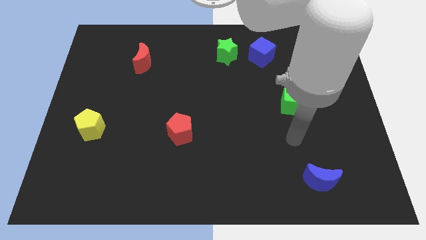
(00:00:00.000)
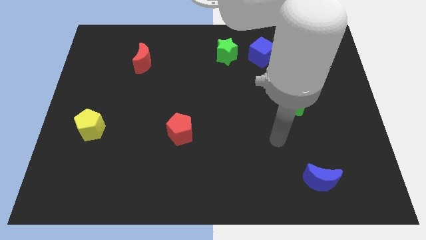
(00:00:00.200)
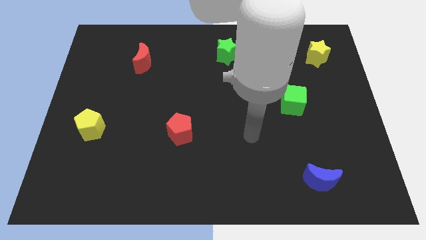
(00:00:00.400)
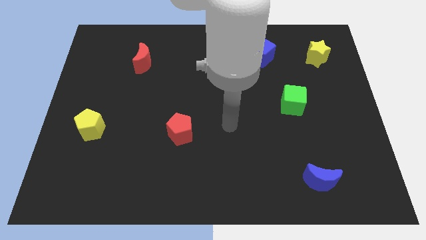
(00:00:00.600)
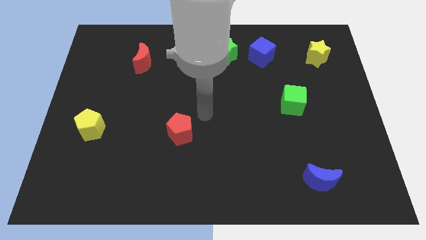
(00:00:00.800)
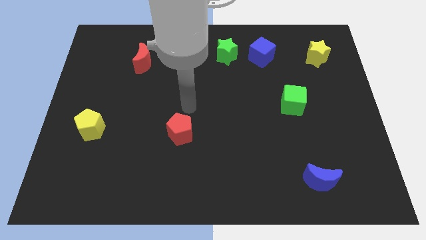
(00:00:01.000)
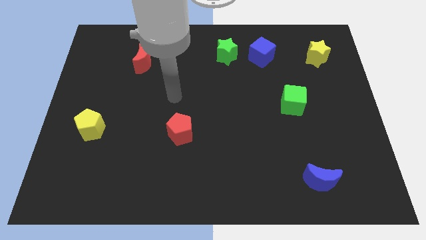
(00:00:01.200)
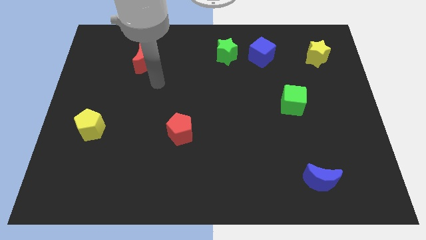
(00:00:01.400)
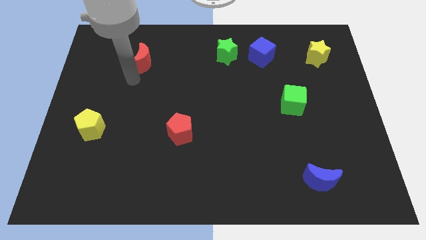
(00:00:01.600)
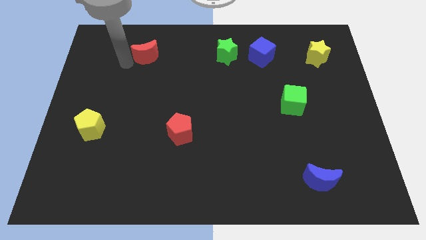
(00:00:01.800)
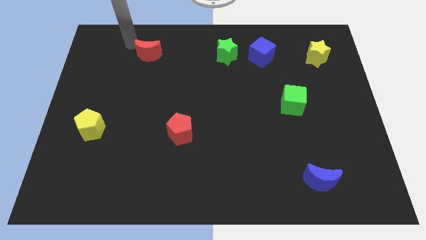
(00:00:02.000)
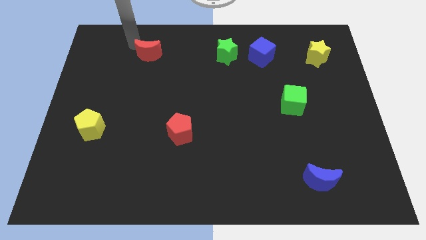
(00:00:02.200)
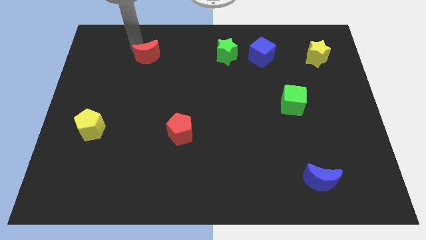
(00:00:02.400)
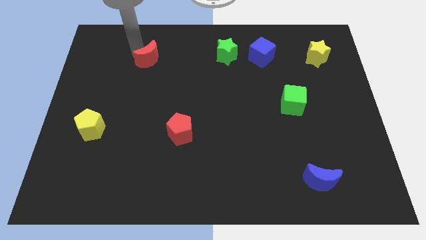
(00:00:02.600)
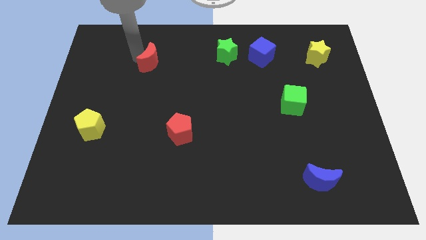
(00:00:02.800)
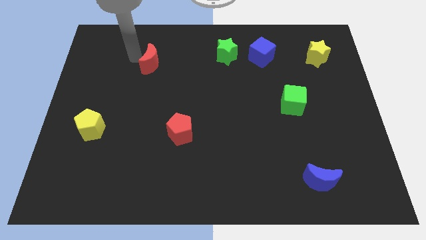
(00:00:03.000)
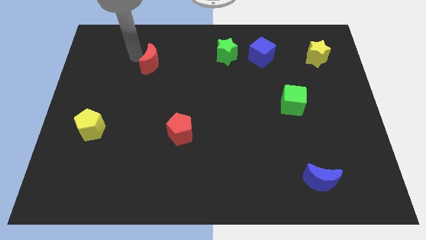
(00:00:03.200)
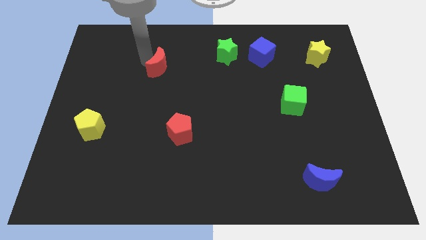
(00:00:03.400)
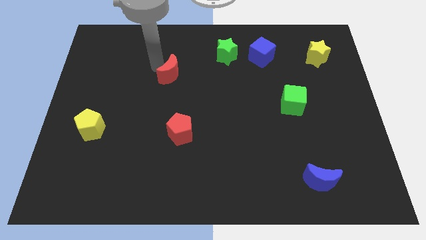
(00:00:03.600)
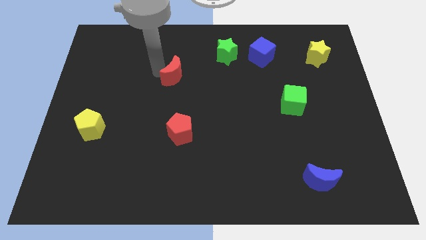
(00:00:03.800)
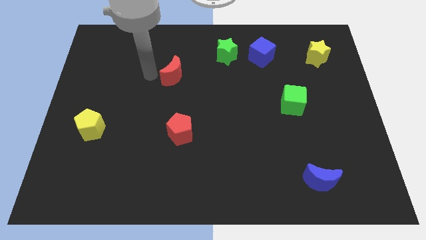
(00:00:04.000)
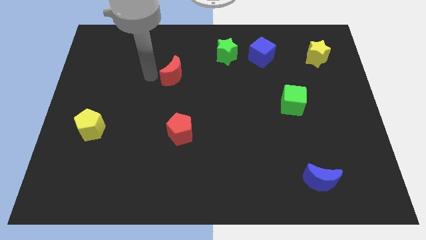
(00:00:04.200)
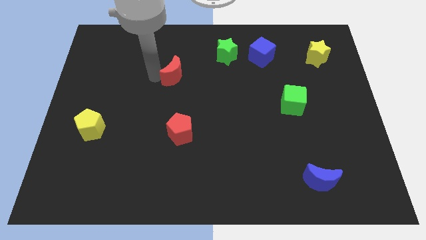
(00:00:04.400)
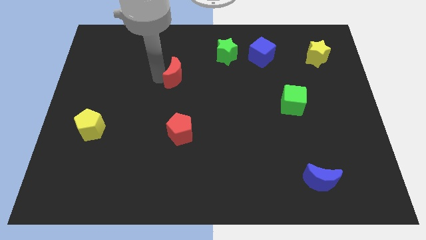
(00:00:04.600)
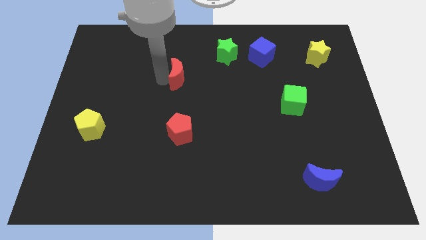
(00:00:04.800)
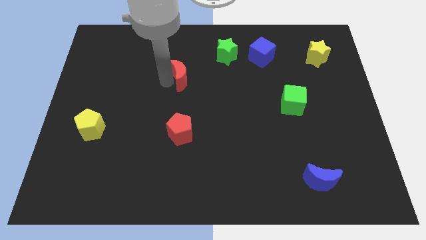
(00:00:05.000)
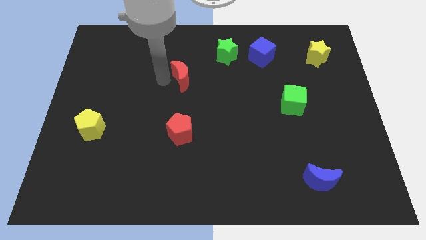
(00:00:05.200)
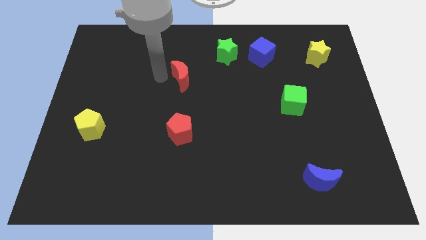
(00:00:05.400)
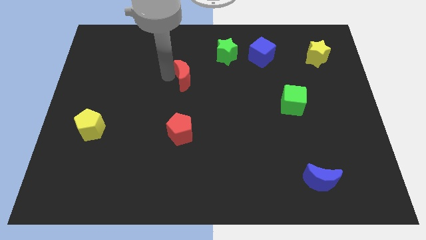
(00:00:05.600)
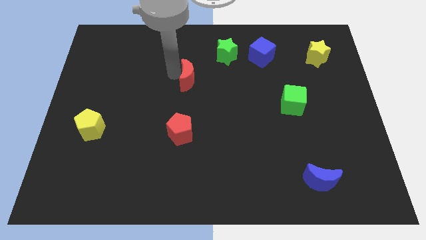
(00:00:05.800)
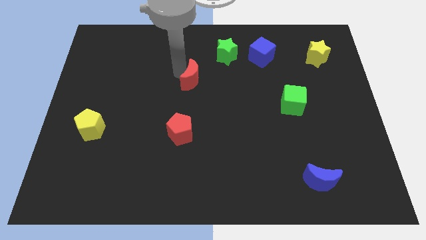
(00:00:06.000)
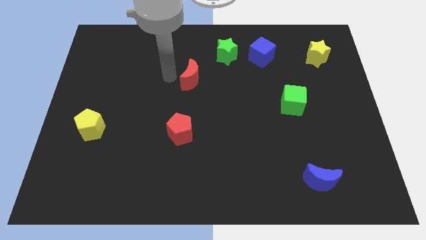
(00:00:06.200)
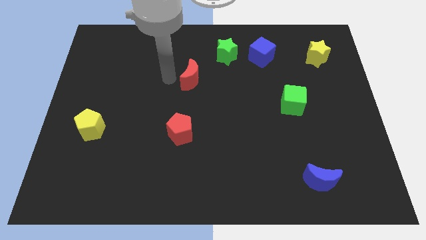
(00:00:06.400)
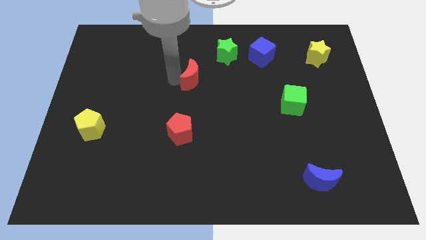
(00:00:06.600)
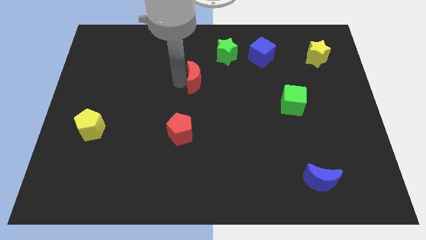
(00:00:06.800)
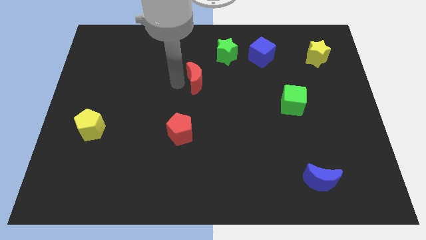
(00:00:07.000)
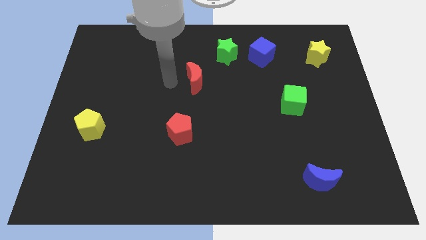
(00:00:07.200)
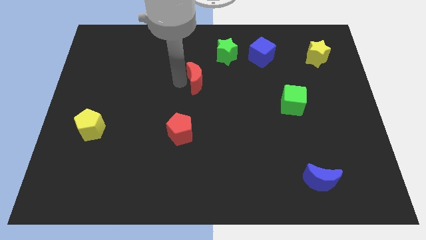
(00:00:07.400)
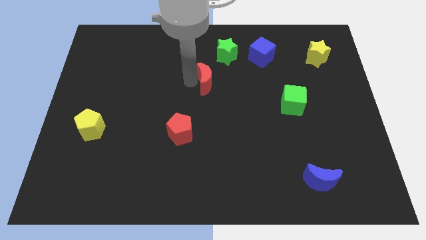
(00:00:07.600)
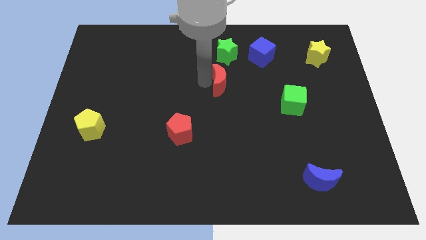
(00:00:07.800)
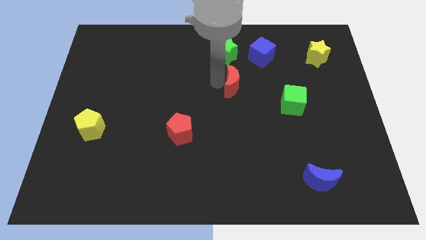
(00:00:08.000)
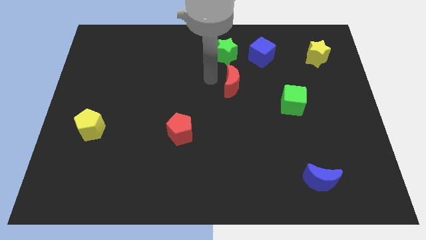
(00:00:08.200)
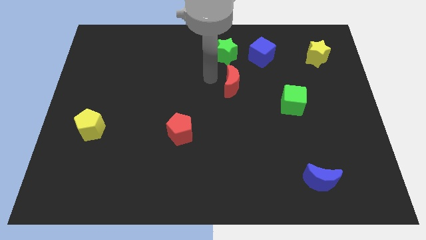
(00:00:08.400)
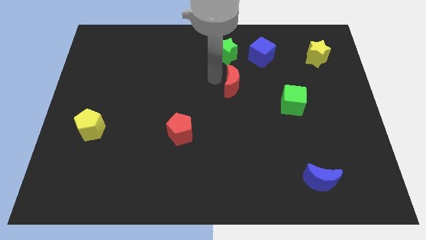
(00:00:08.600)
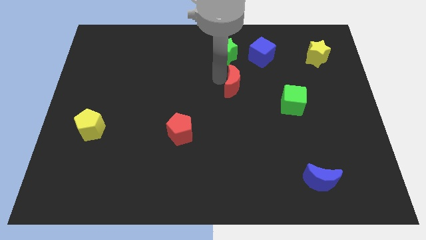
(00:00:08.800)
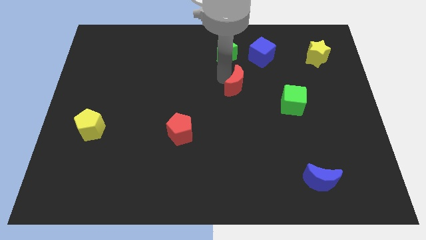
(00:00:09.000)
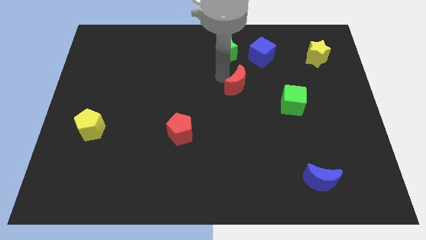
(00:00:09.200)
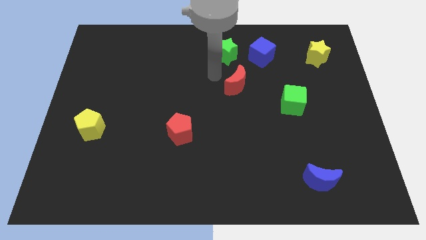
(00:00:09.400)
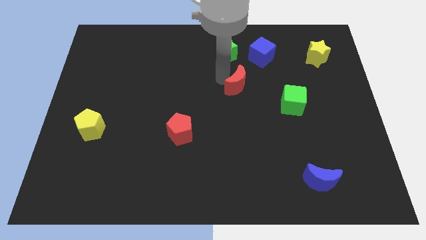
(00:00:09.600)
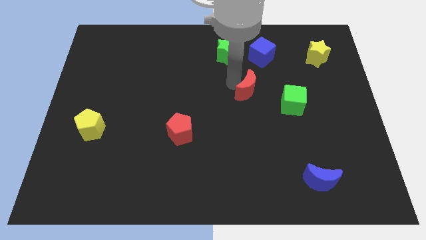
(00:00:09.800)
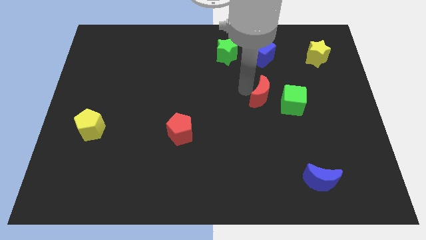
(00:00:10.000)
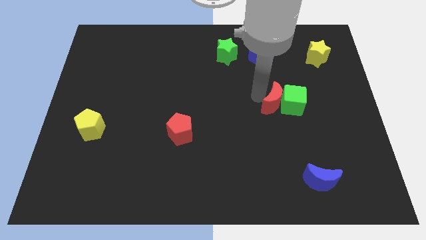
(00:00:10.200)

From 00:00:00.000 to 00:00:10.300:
slide the red moon towards the green cube

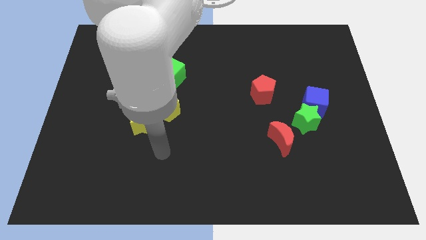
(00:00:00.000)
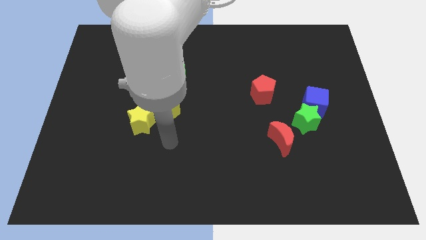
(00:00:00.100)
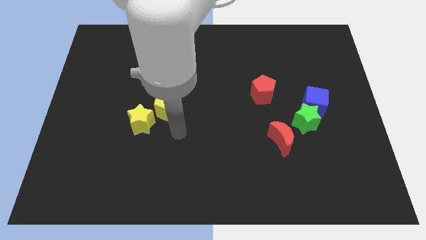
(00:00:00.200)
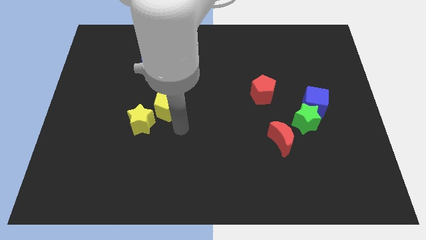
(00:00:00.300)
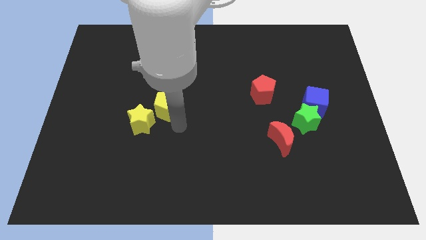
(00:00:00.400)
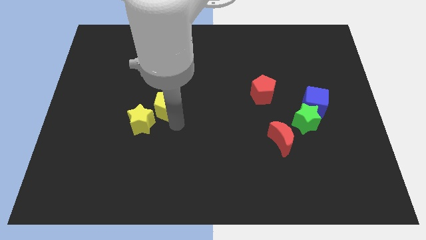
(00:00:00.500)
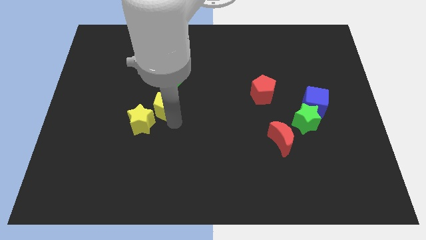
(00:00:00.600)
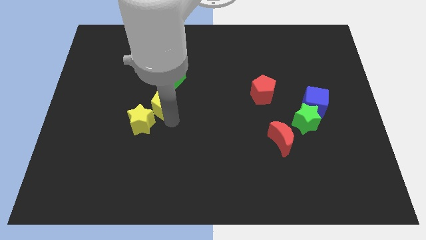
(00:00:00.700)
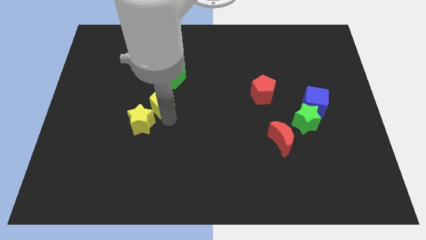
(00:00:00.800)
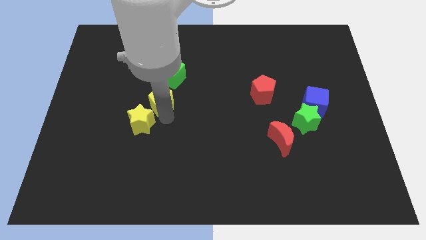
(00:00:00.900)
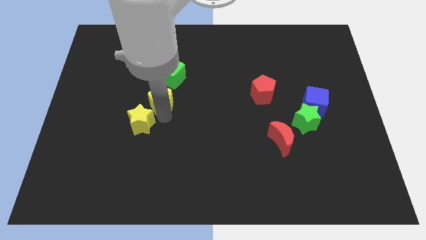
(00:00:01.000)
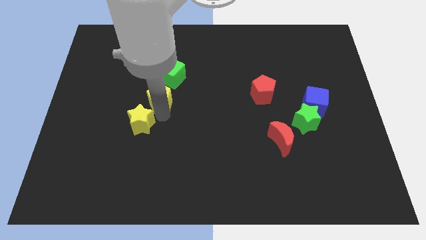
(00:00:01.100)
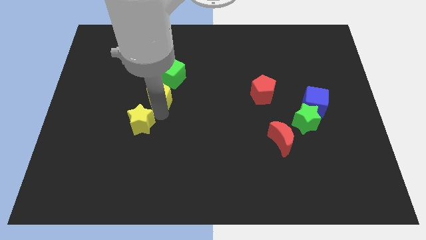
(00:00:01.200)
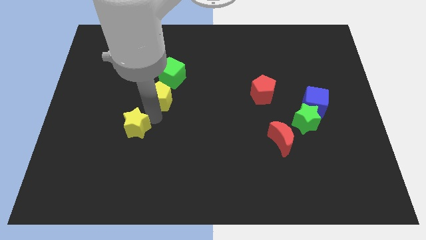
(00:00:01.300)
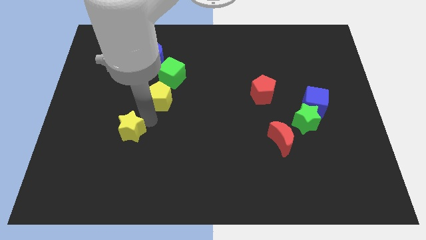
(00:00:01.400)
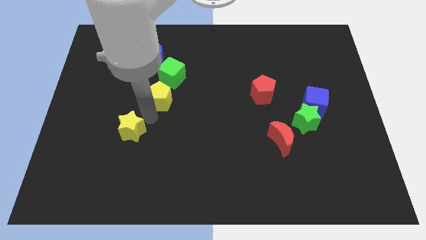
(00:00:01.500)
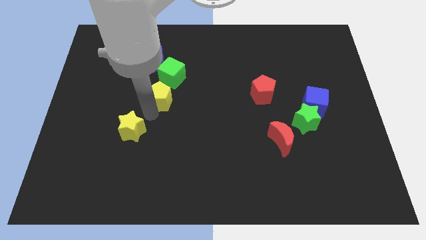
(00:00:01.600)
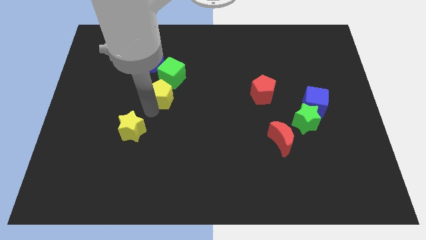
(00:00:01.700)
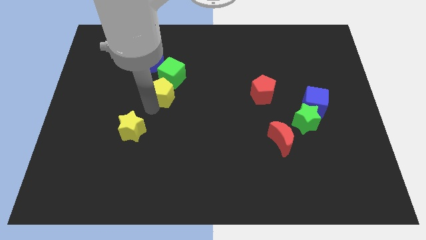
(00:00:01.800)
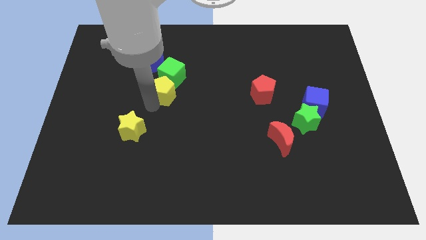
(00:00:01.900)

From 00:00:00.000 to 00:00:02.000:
slide the yellow pentagon towards the green cube
